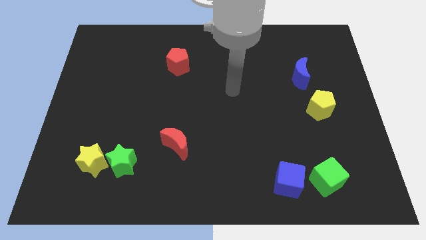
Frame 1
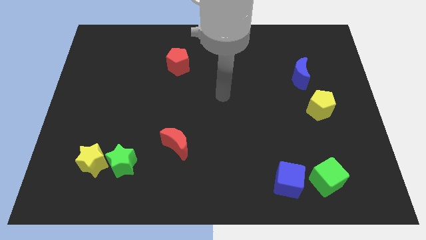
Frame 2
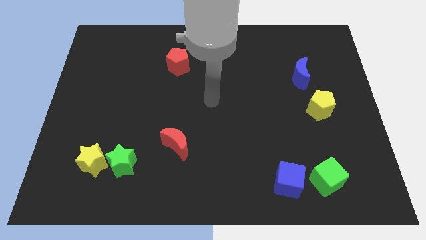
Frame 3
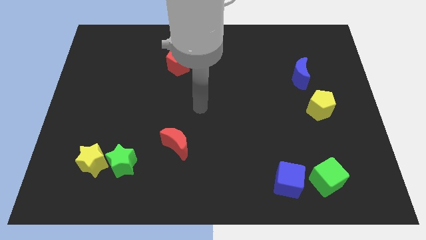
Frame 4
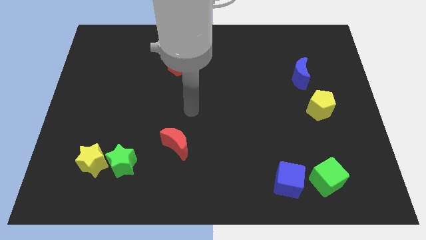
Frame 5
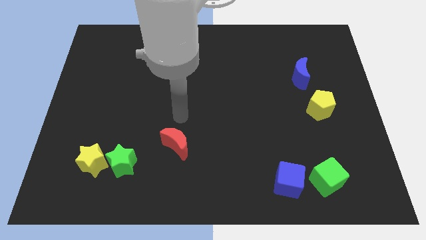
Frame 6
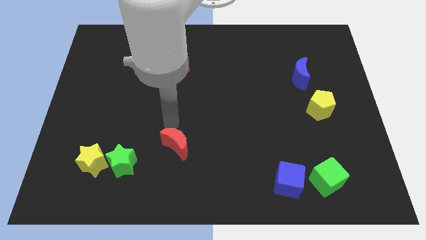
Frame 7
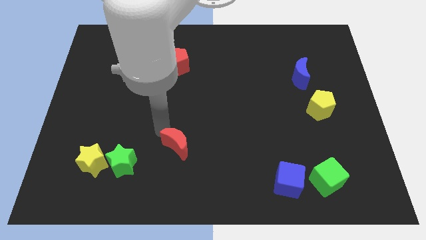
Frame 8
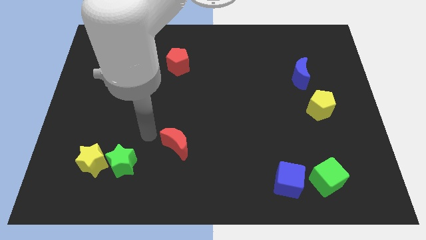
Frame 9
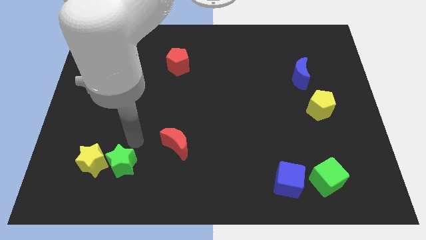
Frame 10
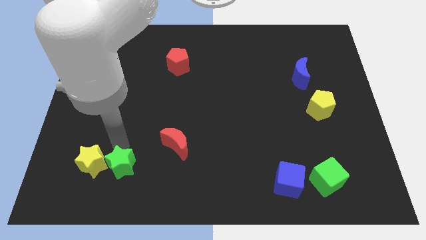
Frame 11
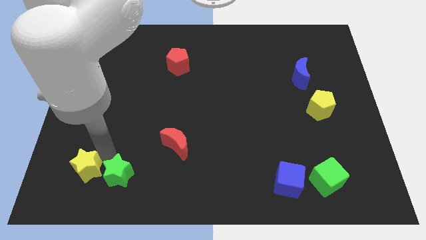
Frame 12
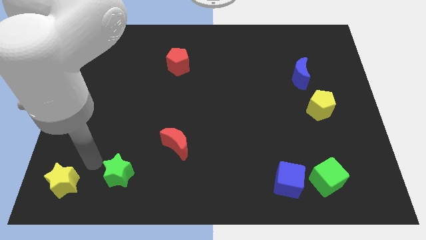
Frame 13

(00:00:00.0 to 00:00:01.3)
separate the green star from the yellow star

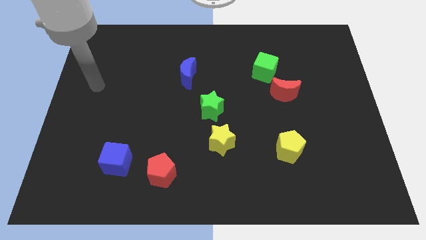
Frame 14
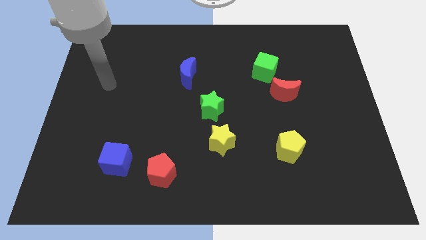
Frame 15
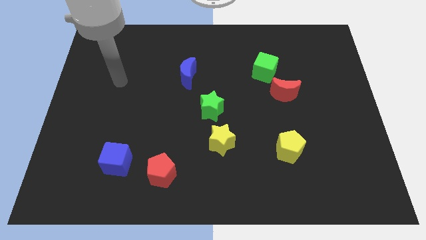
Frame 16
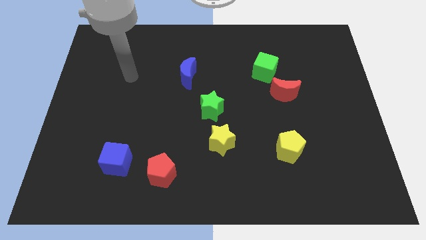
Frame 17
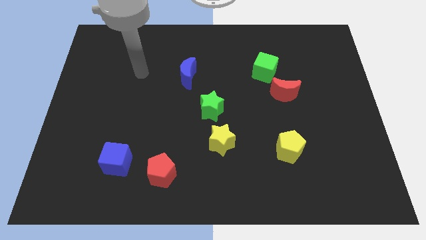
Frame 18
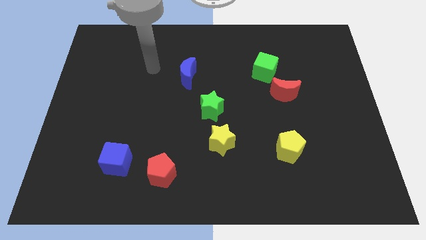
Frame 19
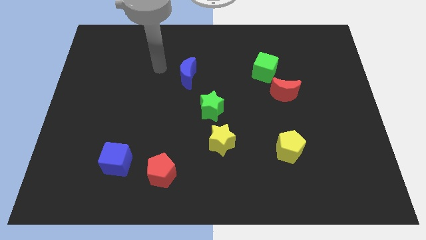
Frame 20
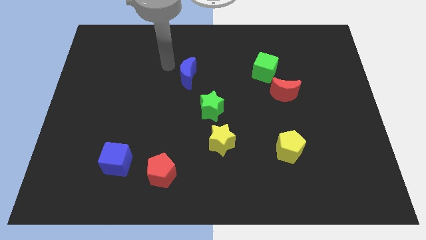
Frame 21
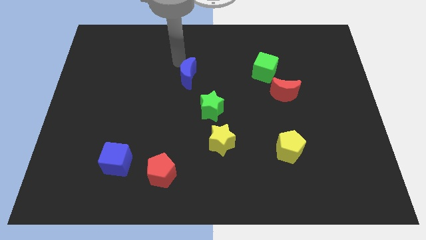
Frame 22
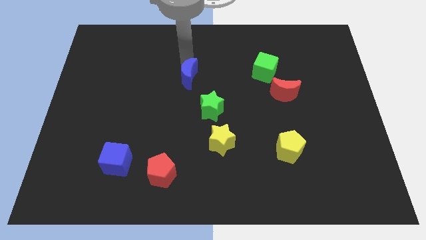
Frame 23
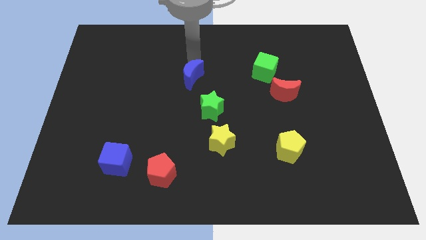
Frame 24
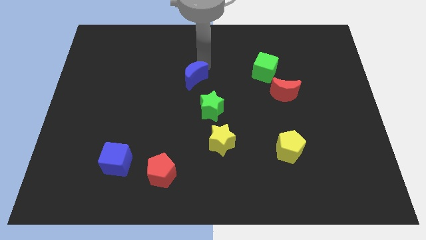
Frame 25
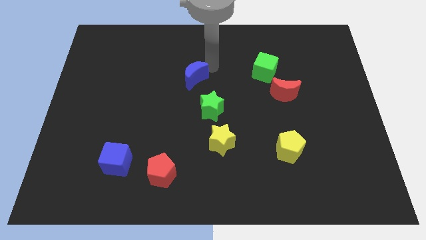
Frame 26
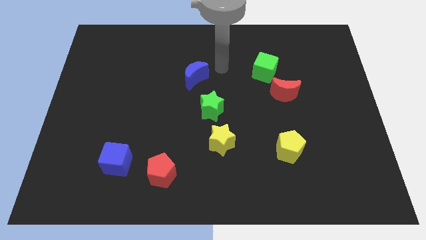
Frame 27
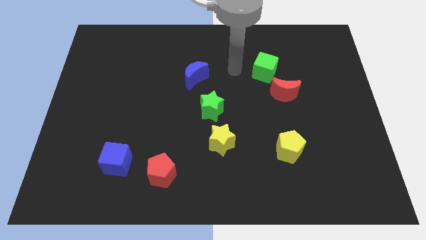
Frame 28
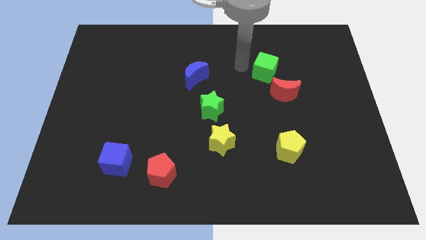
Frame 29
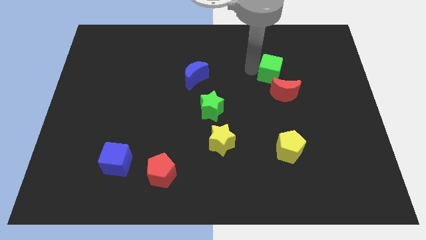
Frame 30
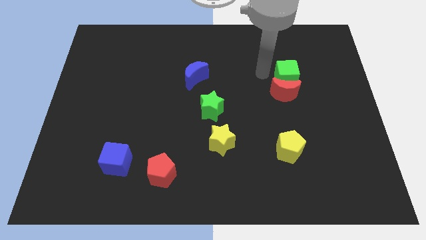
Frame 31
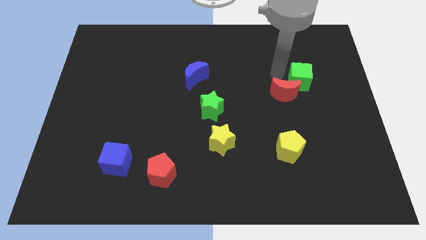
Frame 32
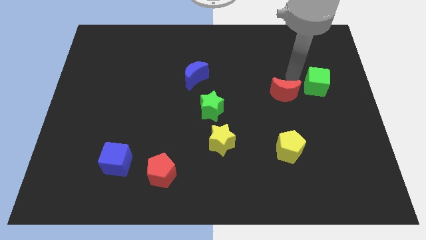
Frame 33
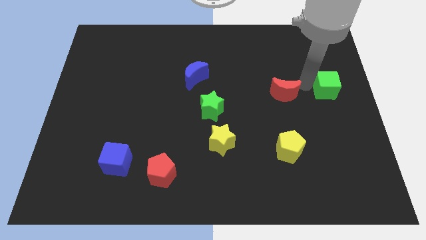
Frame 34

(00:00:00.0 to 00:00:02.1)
move the red moon away from the green cube

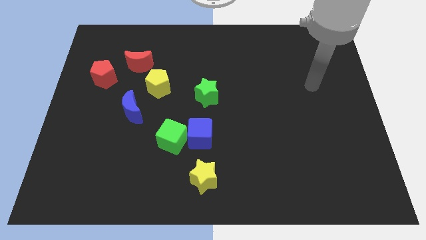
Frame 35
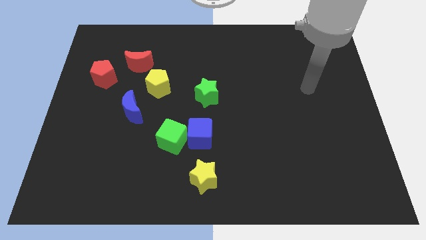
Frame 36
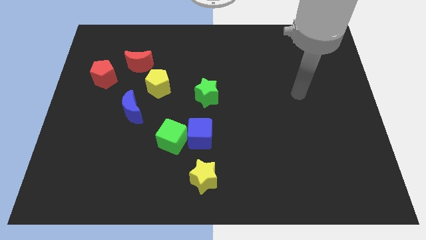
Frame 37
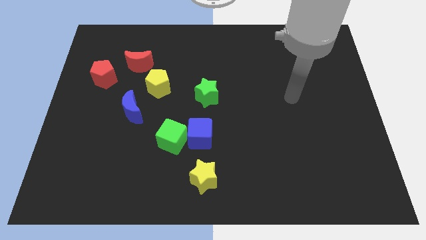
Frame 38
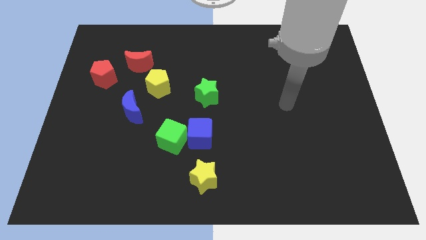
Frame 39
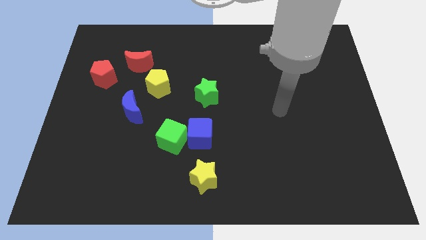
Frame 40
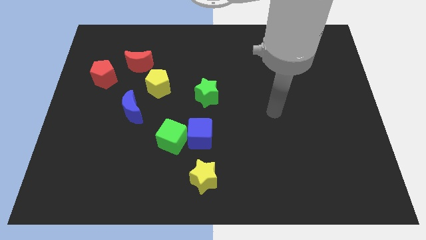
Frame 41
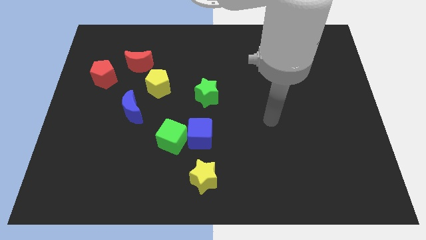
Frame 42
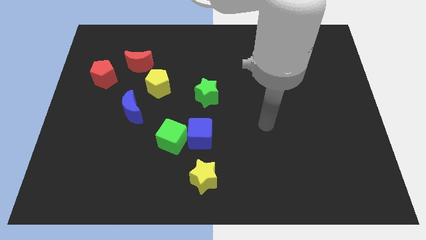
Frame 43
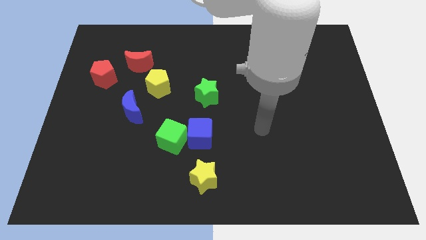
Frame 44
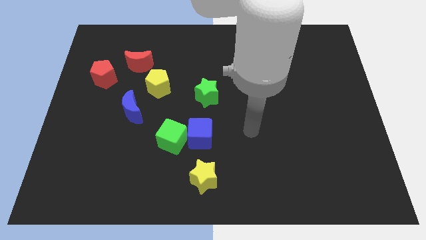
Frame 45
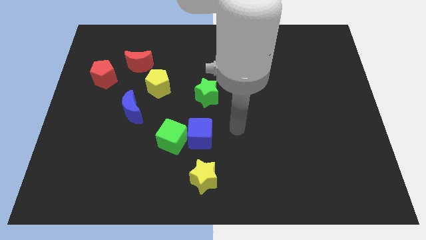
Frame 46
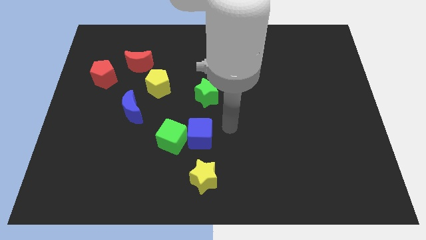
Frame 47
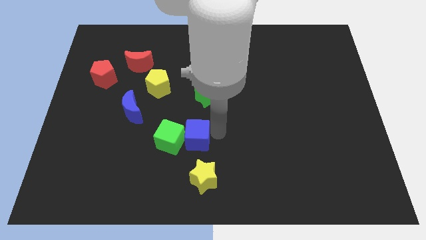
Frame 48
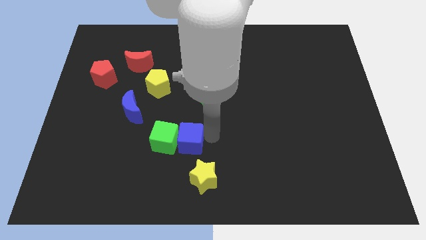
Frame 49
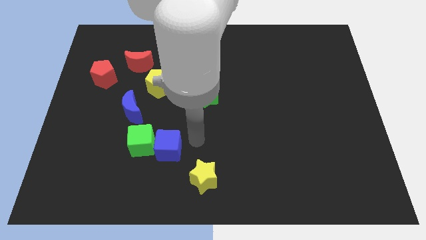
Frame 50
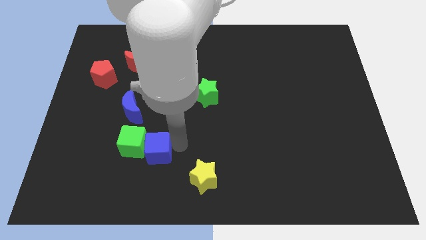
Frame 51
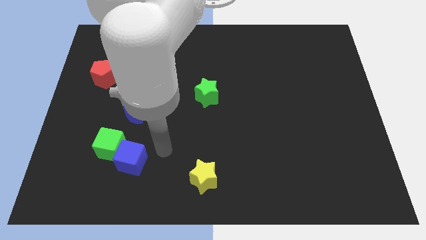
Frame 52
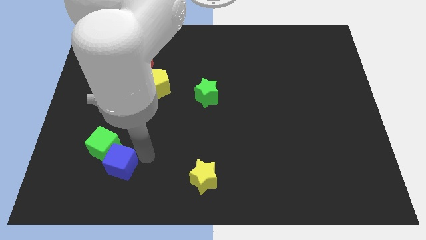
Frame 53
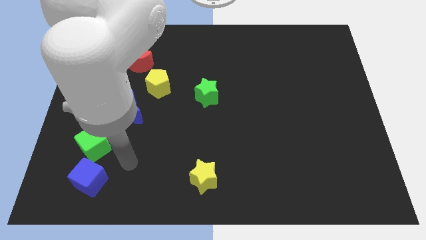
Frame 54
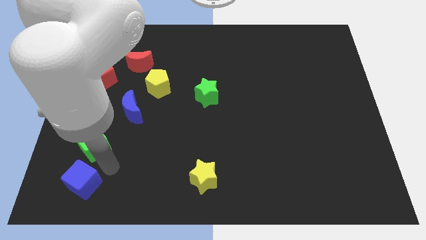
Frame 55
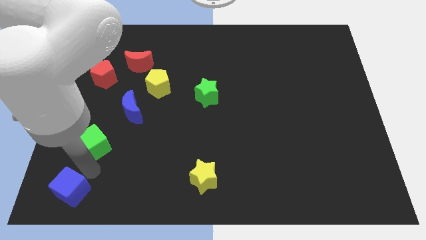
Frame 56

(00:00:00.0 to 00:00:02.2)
pull the green cube apart from the blue cube

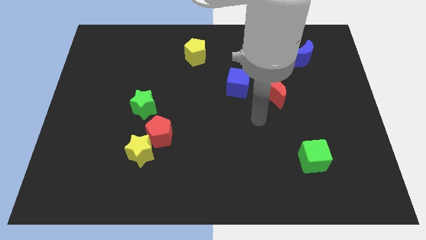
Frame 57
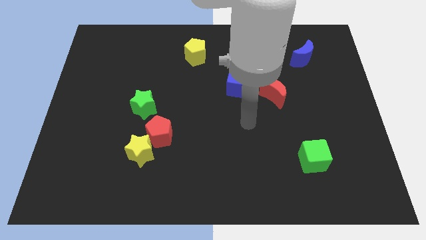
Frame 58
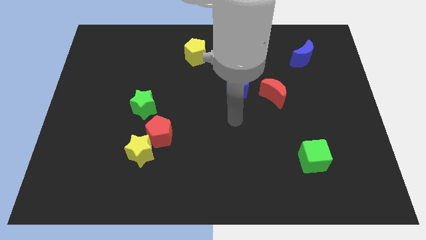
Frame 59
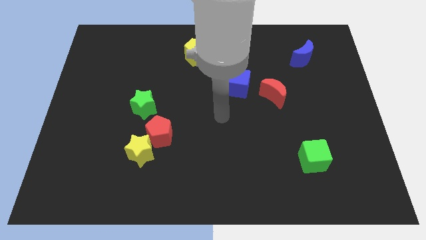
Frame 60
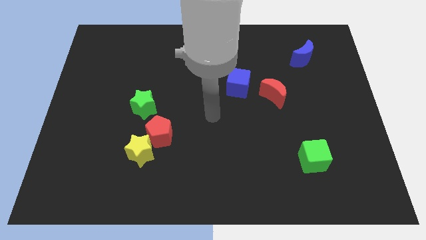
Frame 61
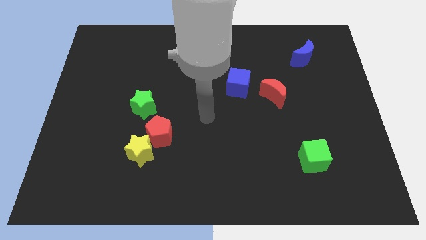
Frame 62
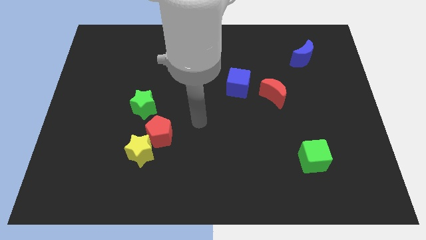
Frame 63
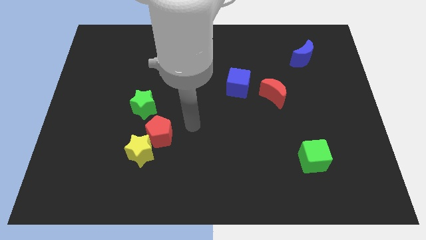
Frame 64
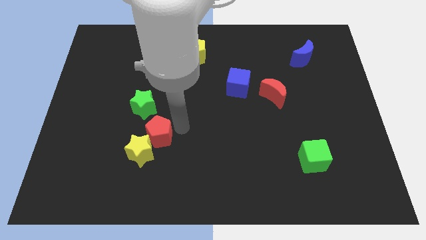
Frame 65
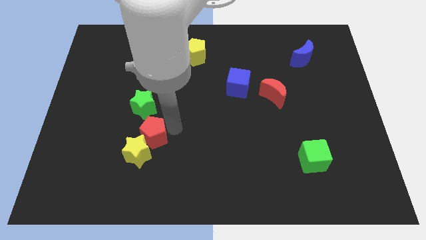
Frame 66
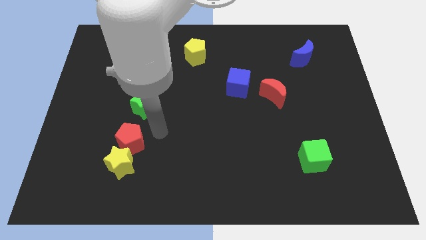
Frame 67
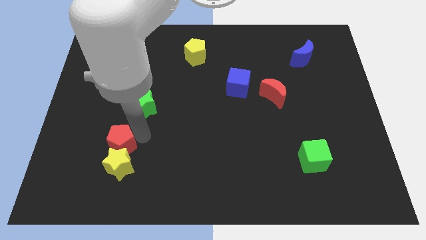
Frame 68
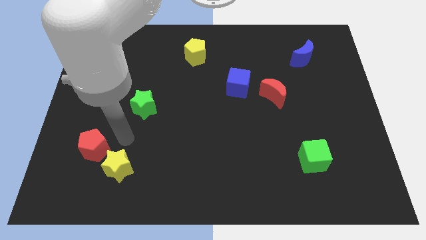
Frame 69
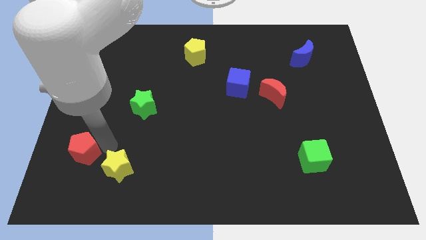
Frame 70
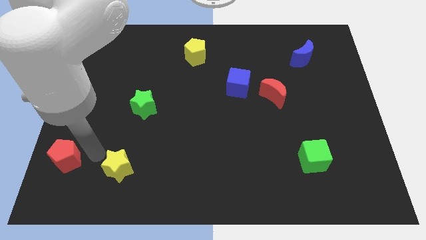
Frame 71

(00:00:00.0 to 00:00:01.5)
pull the yellow star apart from the red pentagon

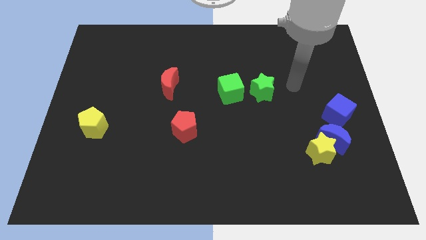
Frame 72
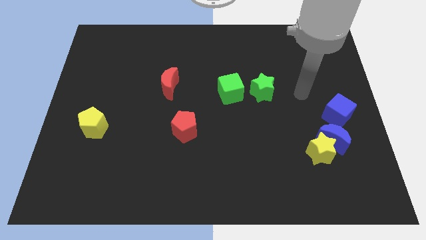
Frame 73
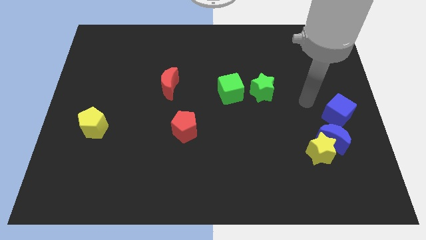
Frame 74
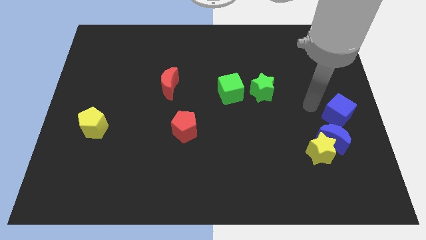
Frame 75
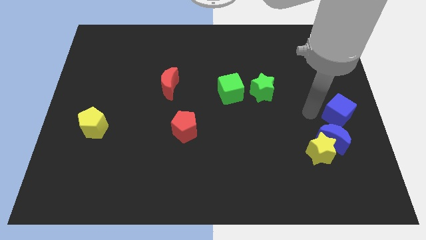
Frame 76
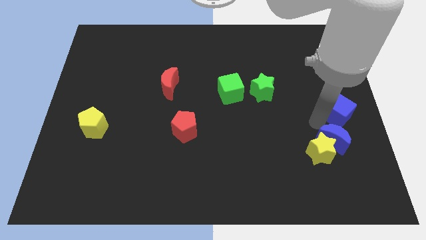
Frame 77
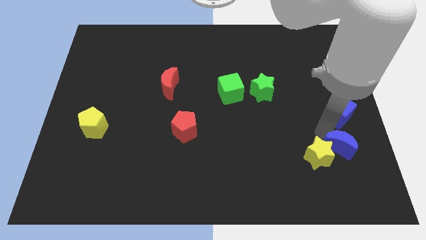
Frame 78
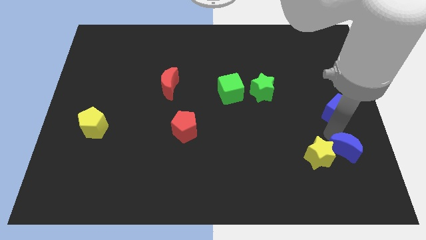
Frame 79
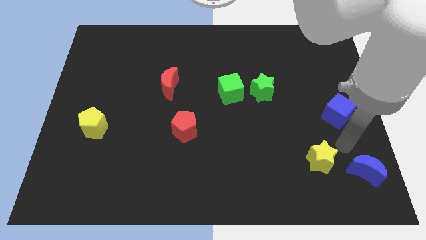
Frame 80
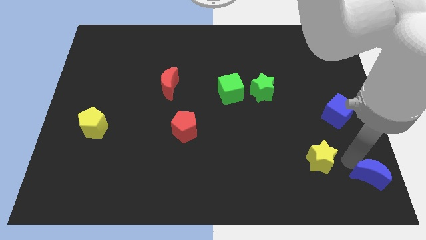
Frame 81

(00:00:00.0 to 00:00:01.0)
separate the yellow star from the blue moon

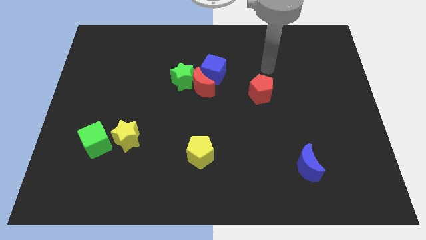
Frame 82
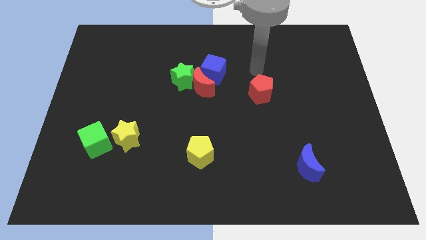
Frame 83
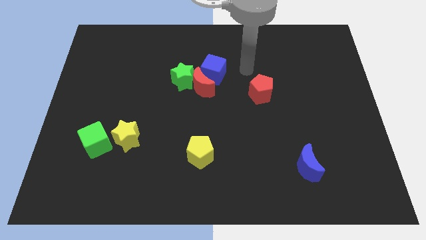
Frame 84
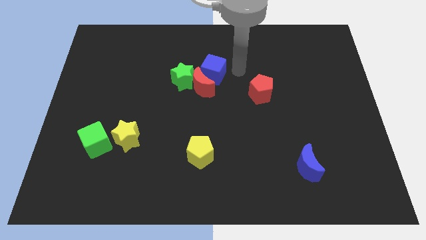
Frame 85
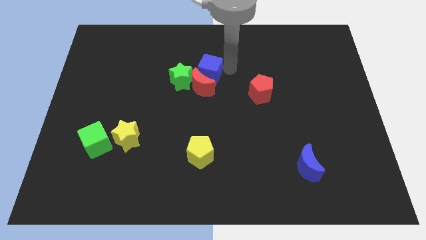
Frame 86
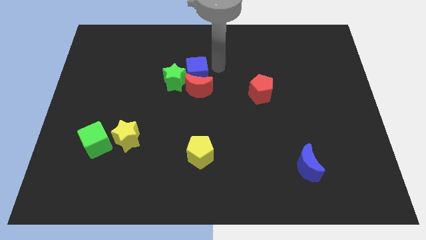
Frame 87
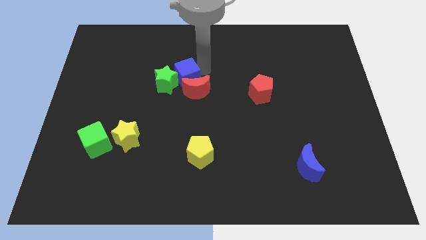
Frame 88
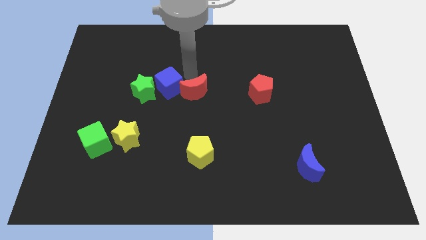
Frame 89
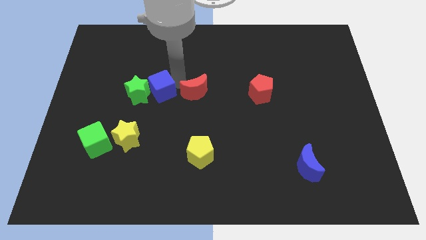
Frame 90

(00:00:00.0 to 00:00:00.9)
move the red moon away from the green star and blue cube

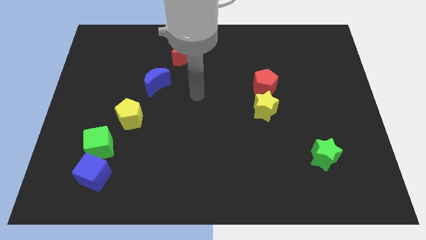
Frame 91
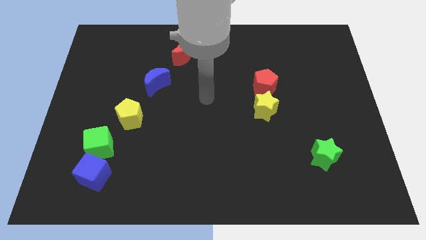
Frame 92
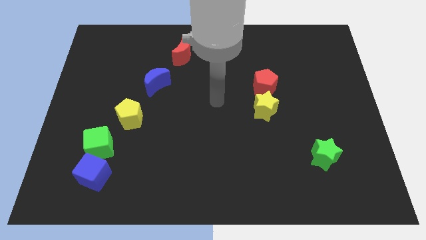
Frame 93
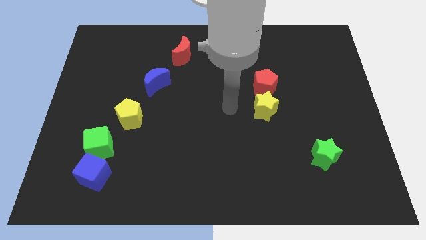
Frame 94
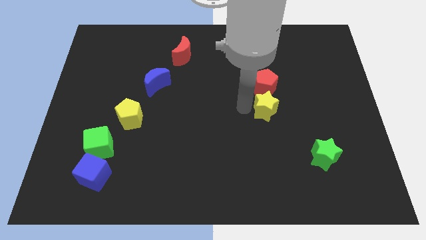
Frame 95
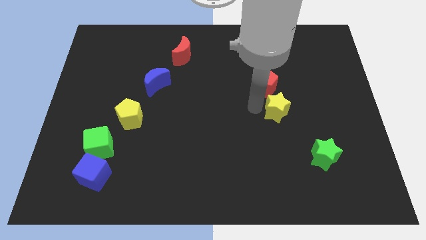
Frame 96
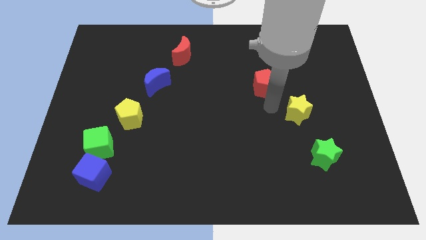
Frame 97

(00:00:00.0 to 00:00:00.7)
move the red pentagon away from the yellow star
